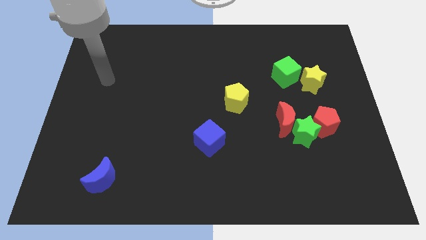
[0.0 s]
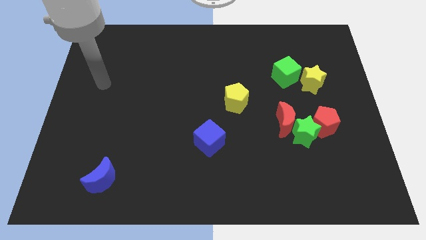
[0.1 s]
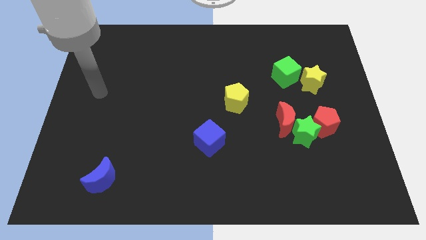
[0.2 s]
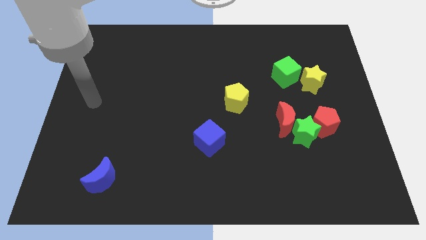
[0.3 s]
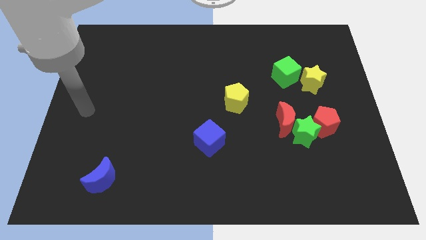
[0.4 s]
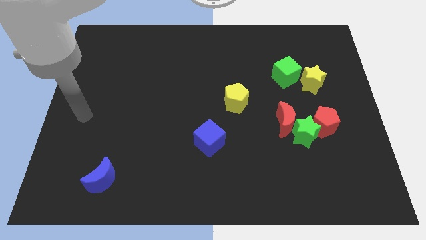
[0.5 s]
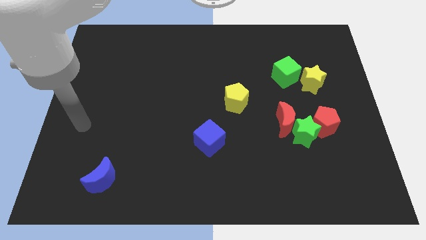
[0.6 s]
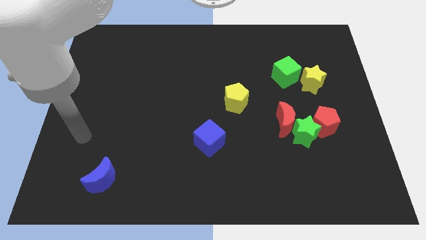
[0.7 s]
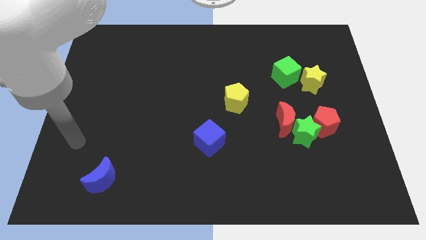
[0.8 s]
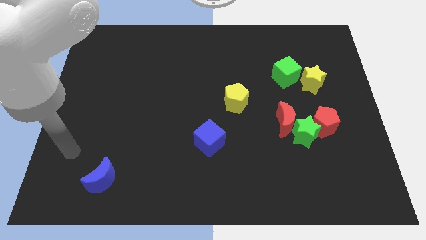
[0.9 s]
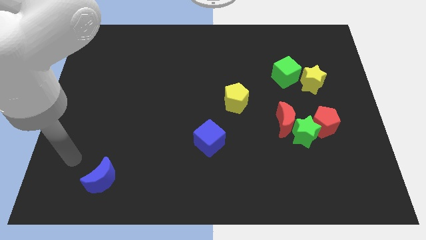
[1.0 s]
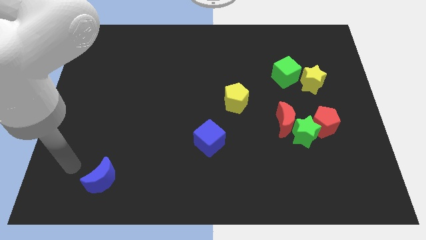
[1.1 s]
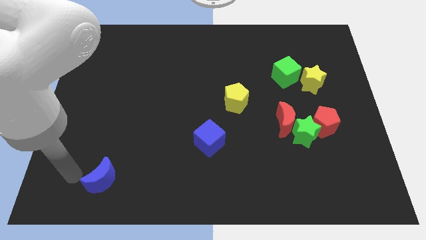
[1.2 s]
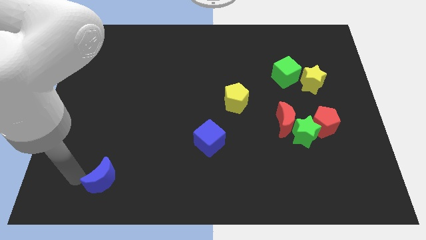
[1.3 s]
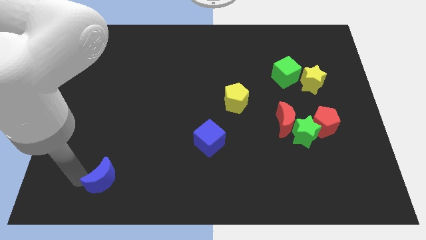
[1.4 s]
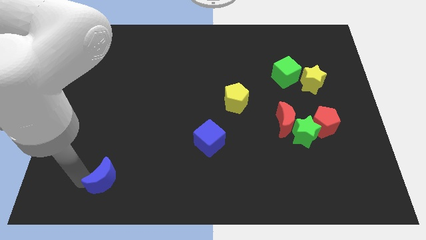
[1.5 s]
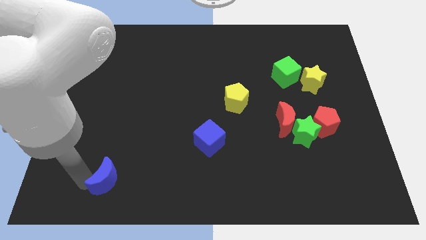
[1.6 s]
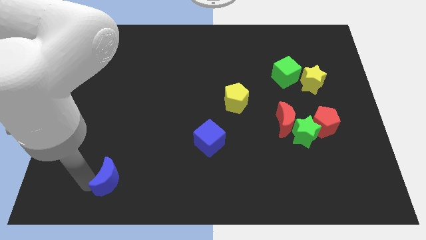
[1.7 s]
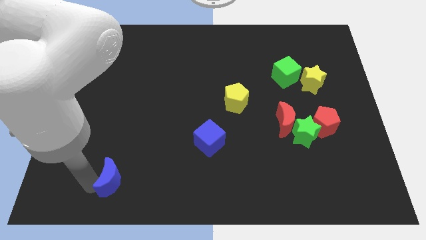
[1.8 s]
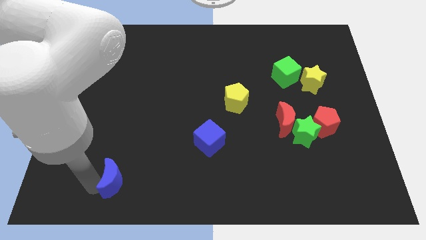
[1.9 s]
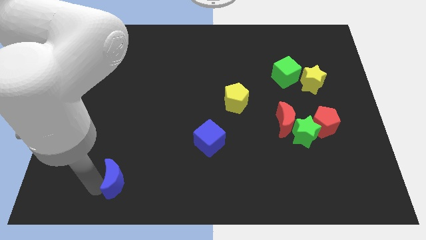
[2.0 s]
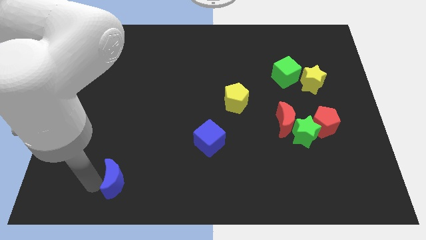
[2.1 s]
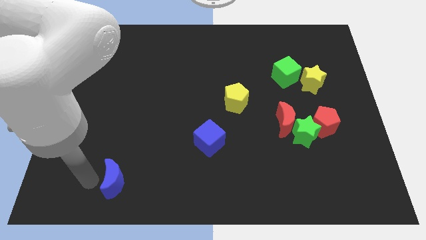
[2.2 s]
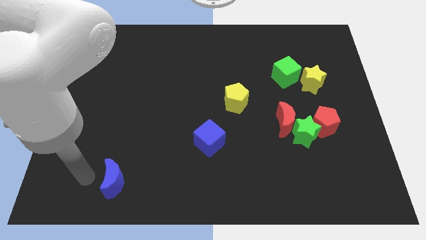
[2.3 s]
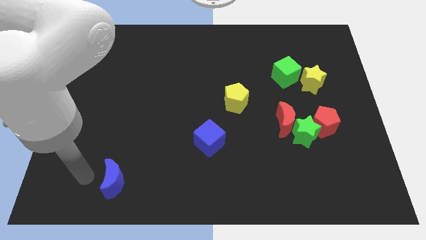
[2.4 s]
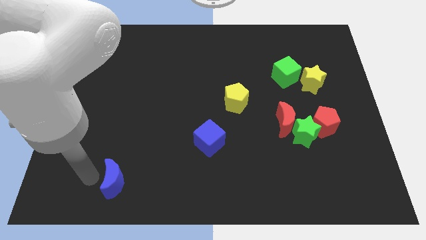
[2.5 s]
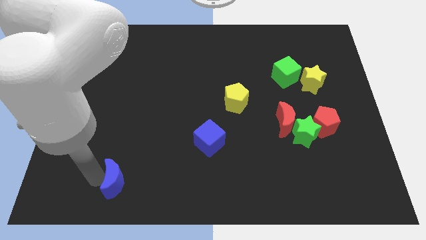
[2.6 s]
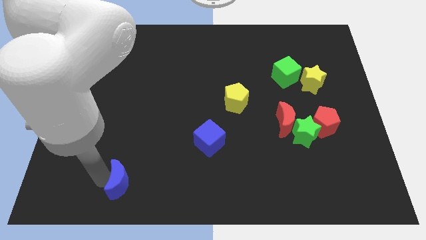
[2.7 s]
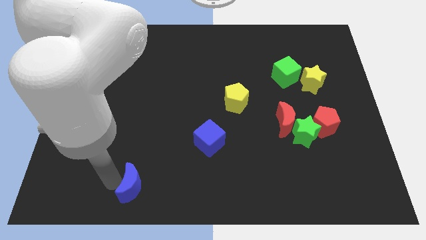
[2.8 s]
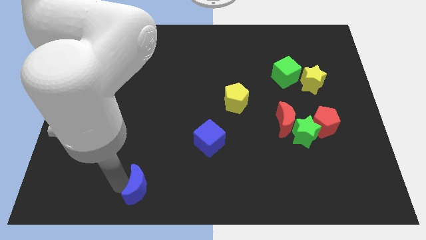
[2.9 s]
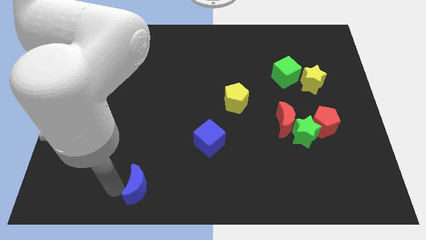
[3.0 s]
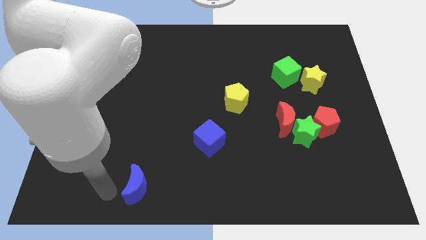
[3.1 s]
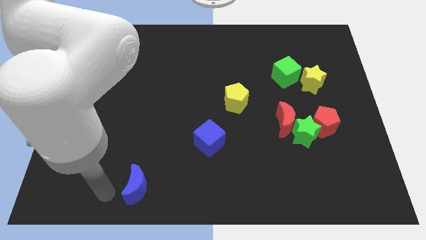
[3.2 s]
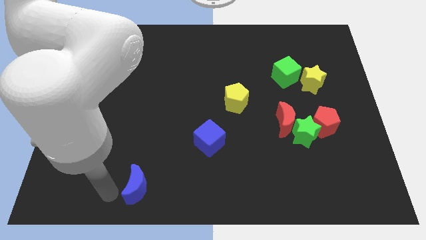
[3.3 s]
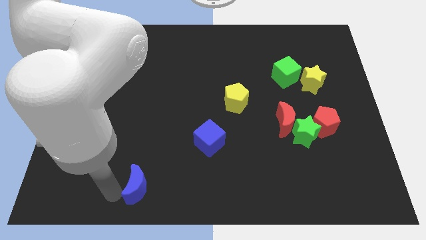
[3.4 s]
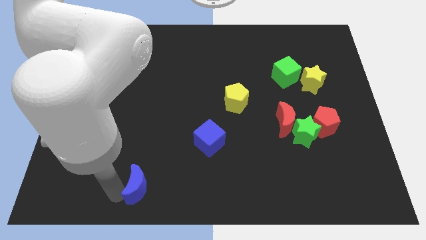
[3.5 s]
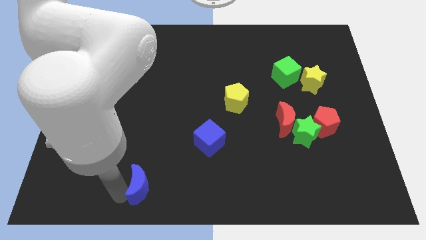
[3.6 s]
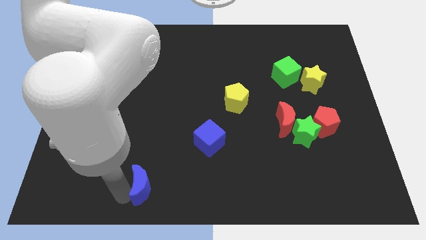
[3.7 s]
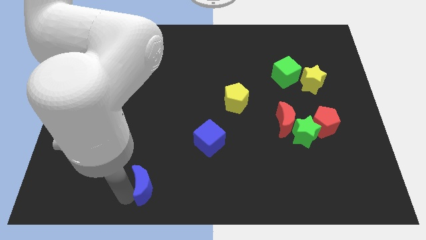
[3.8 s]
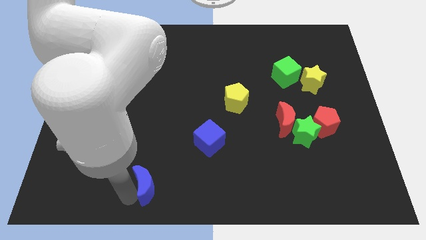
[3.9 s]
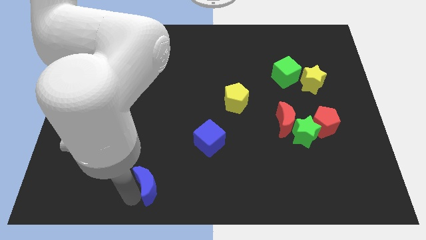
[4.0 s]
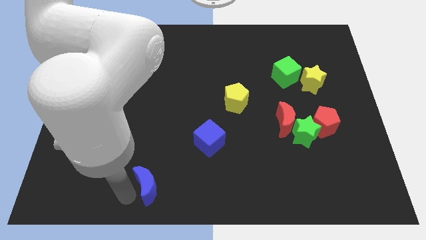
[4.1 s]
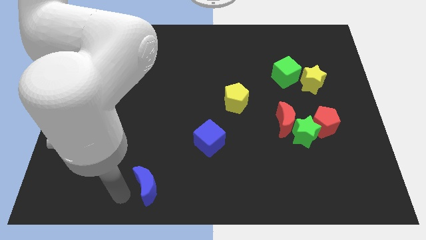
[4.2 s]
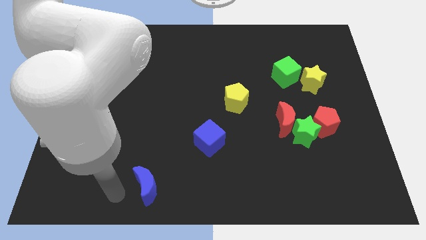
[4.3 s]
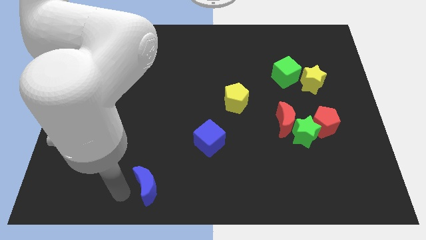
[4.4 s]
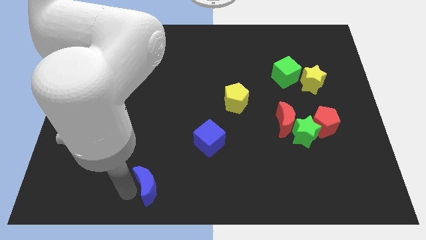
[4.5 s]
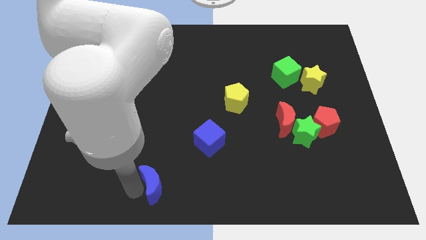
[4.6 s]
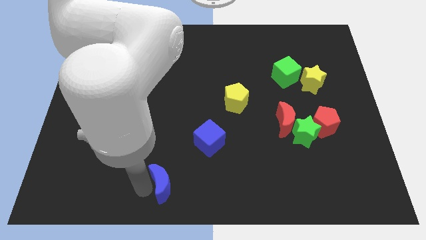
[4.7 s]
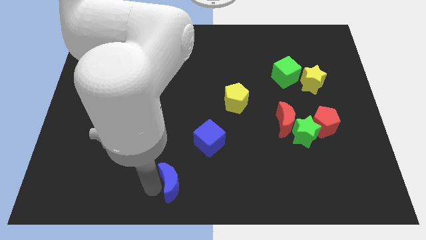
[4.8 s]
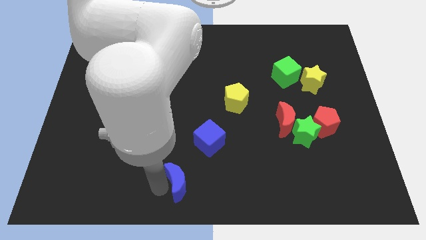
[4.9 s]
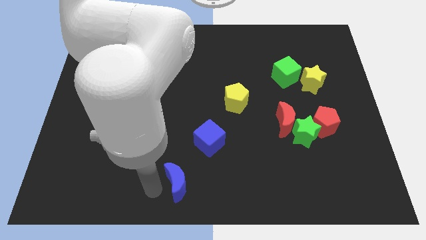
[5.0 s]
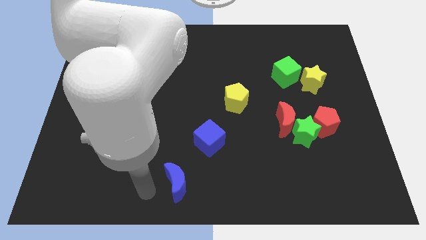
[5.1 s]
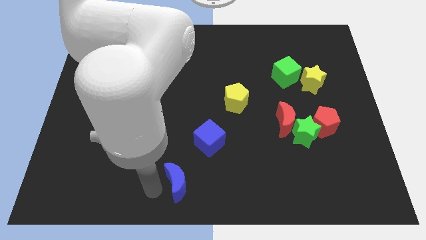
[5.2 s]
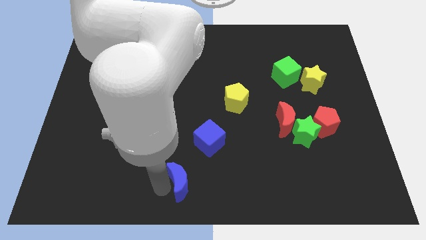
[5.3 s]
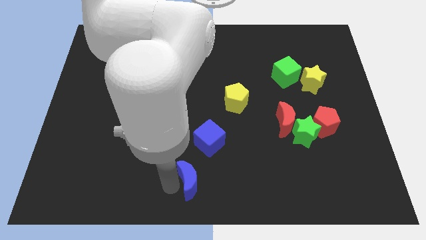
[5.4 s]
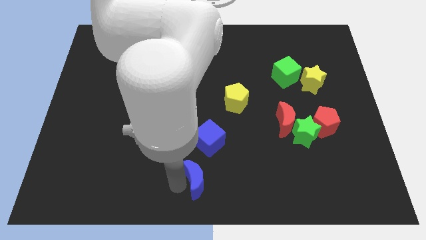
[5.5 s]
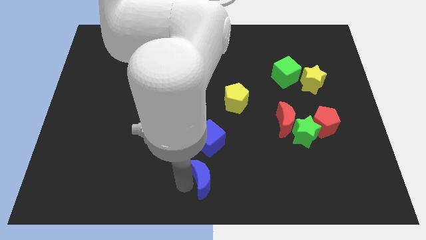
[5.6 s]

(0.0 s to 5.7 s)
push the blue moon to the right

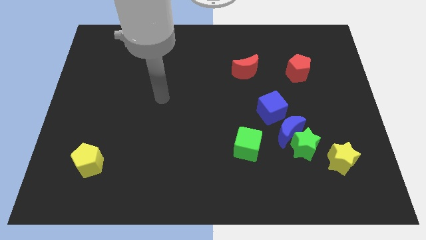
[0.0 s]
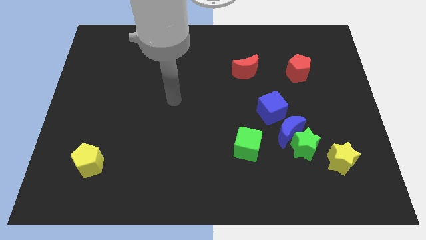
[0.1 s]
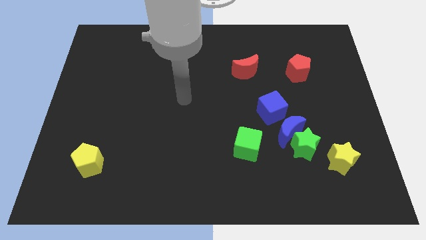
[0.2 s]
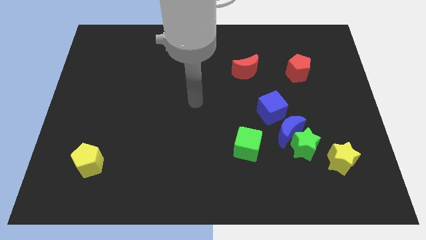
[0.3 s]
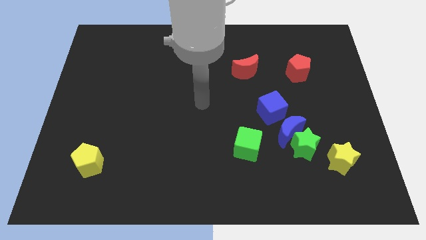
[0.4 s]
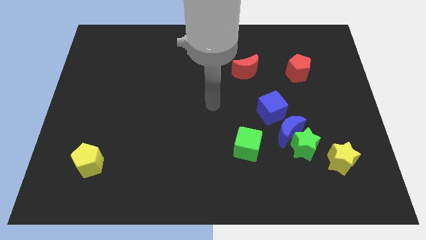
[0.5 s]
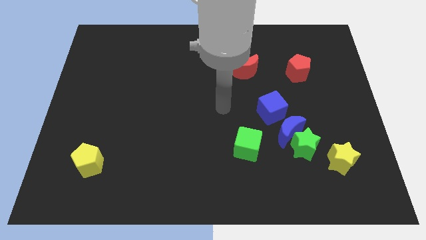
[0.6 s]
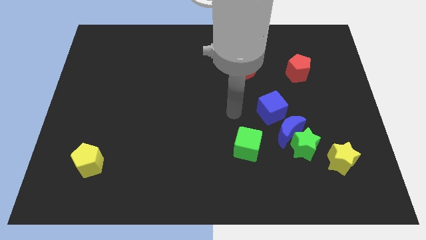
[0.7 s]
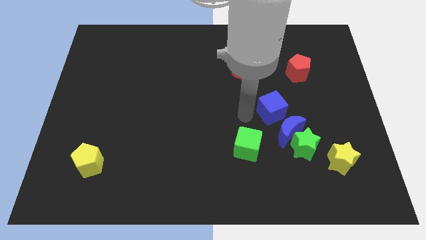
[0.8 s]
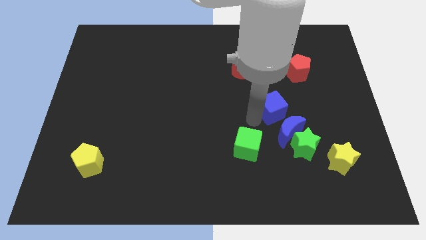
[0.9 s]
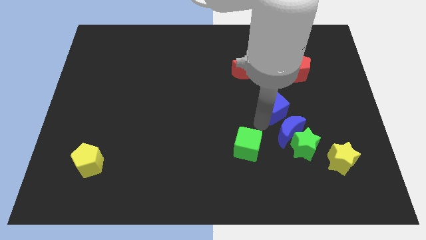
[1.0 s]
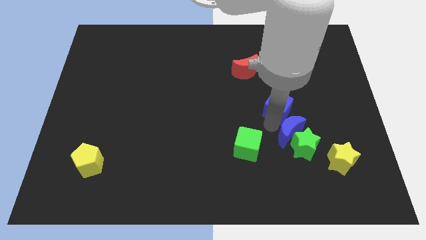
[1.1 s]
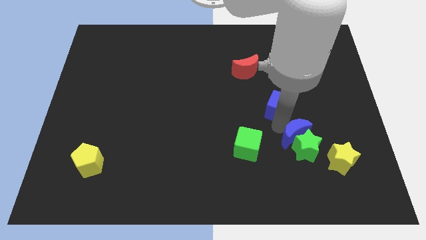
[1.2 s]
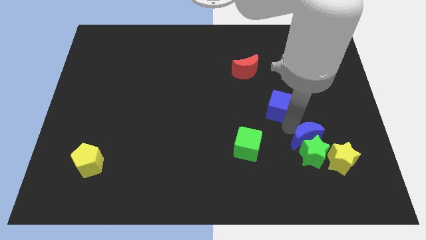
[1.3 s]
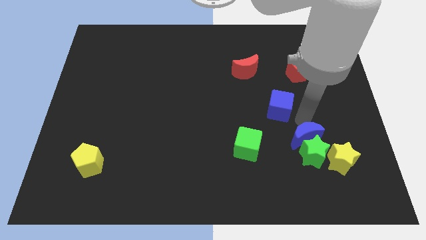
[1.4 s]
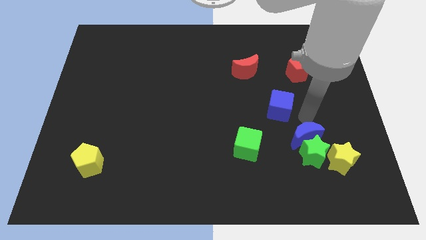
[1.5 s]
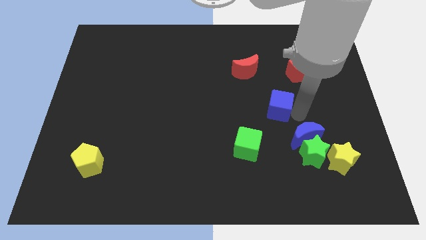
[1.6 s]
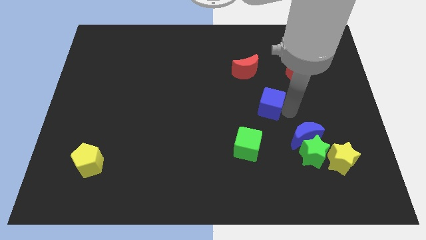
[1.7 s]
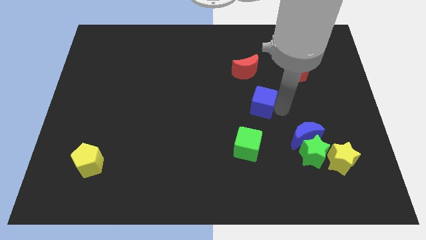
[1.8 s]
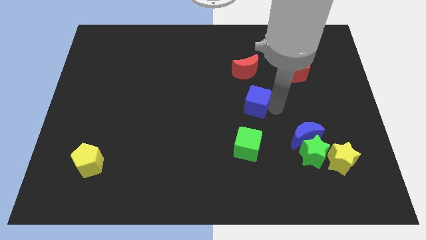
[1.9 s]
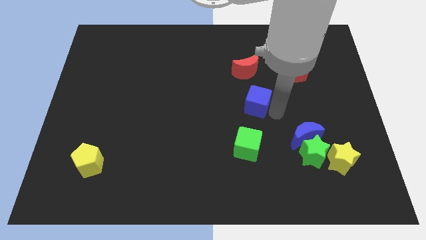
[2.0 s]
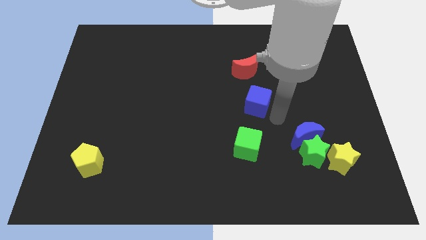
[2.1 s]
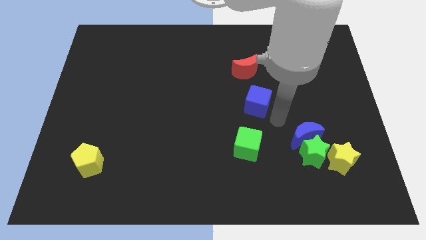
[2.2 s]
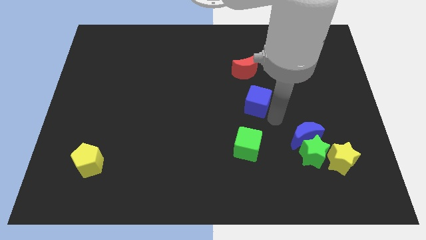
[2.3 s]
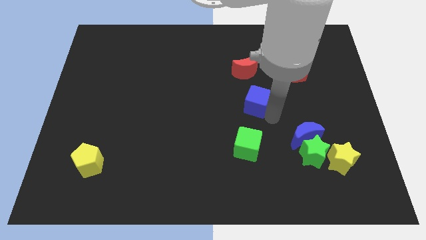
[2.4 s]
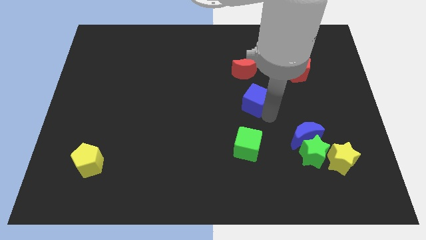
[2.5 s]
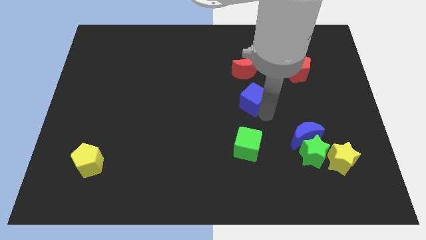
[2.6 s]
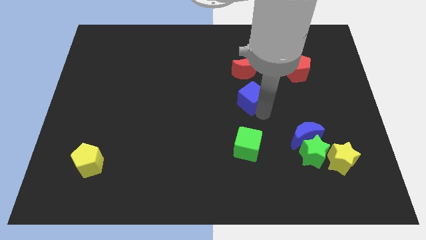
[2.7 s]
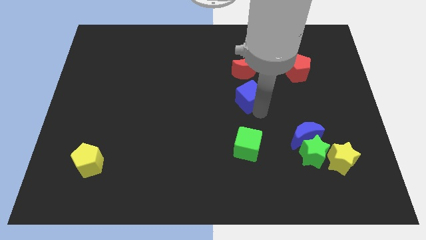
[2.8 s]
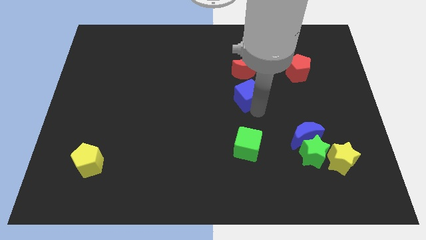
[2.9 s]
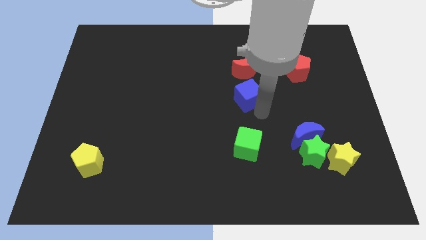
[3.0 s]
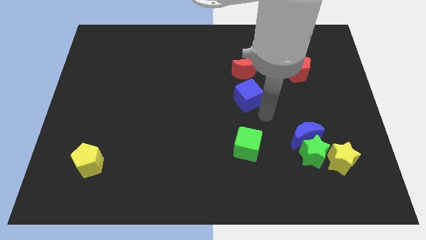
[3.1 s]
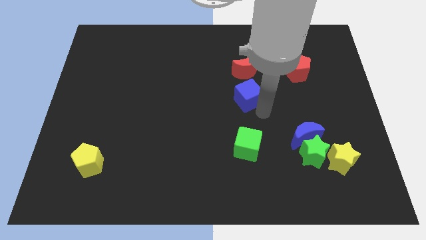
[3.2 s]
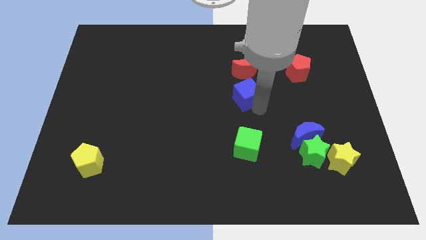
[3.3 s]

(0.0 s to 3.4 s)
move the blue cube diagonally up and to the left a little
